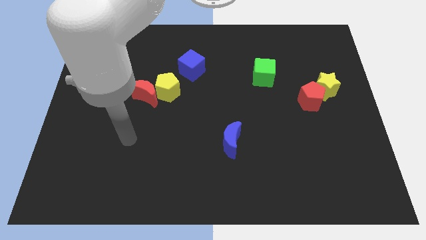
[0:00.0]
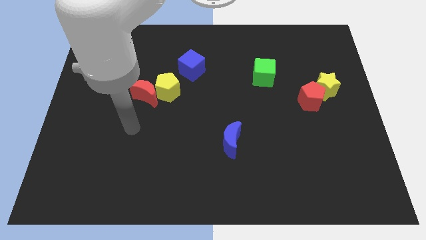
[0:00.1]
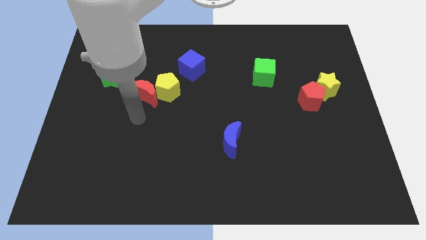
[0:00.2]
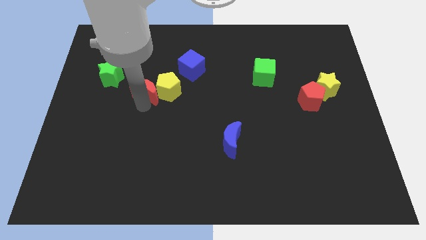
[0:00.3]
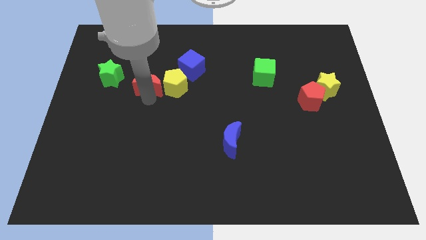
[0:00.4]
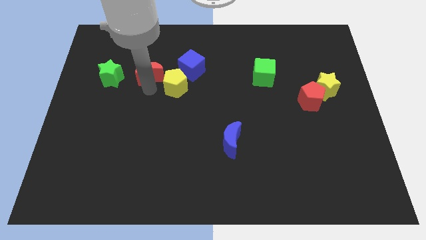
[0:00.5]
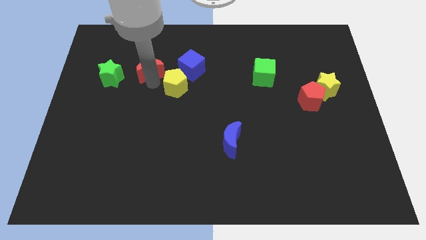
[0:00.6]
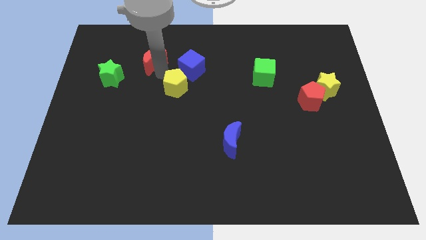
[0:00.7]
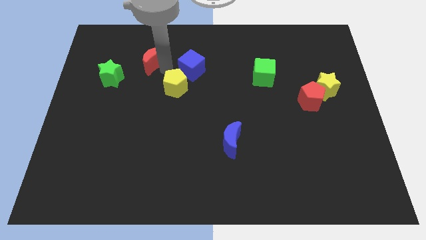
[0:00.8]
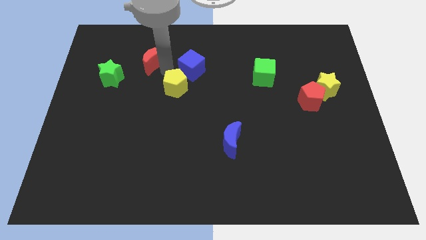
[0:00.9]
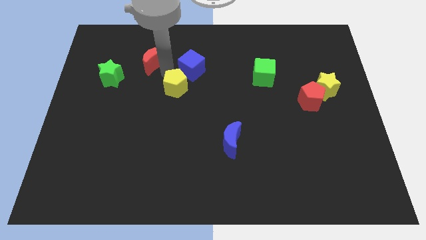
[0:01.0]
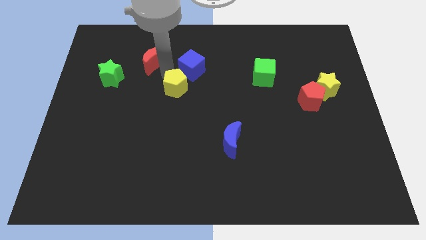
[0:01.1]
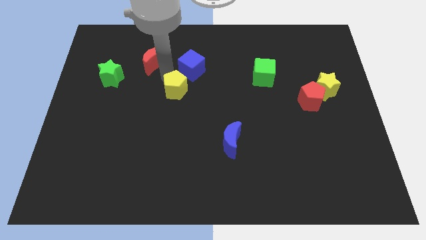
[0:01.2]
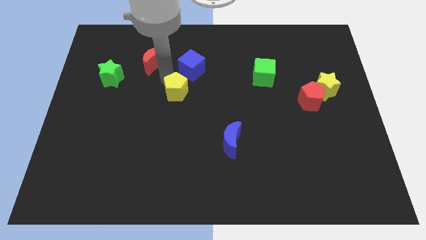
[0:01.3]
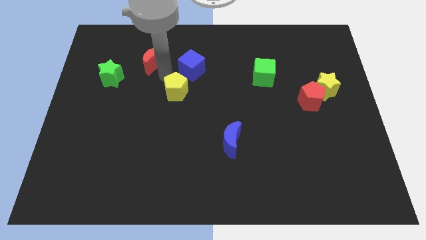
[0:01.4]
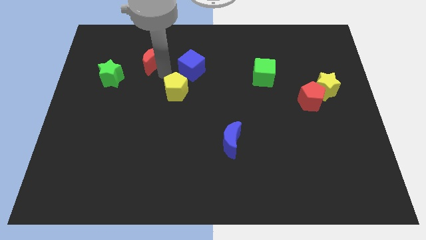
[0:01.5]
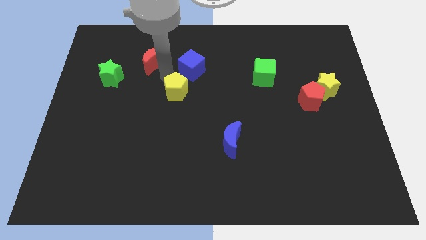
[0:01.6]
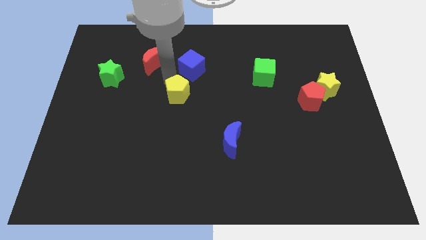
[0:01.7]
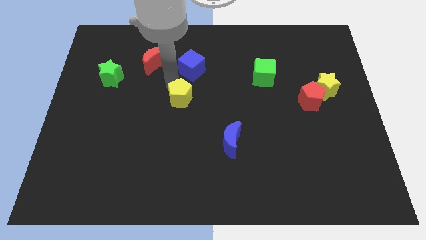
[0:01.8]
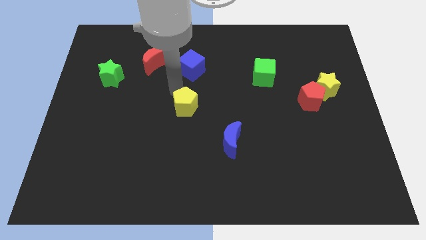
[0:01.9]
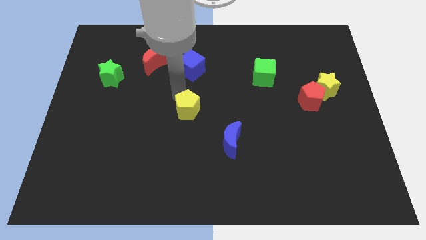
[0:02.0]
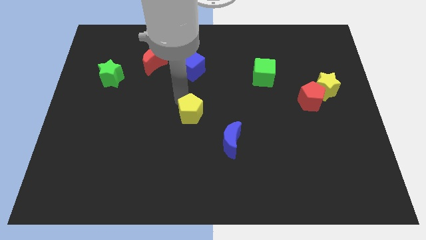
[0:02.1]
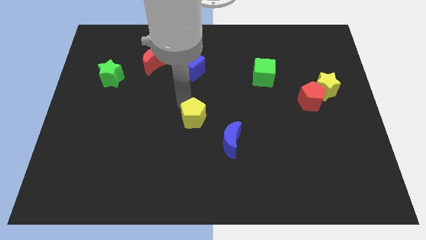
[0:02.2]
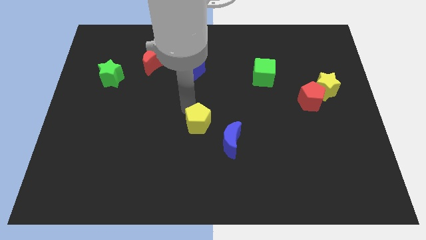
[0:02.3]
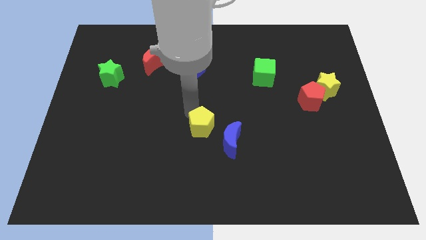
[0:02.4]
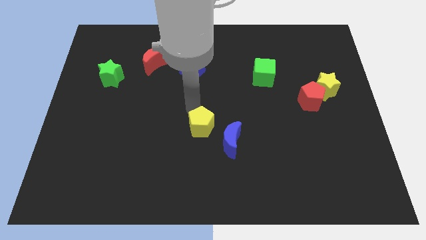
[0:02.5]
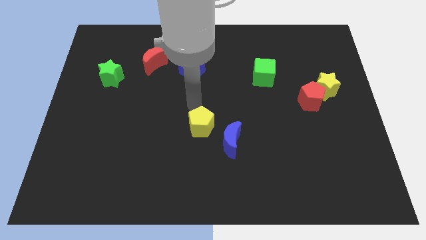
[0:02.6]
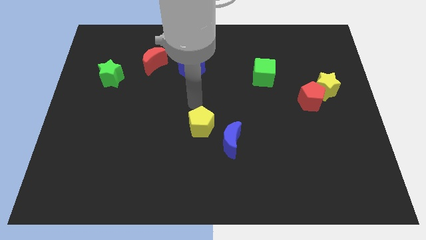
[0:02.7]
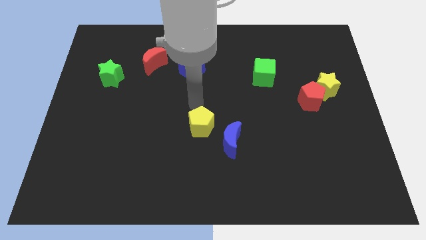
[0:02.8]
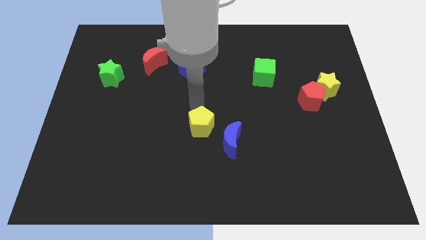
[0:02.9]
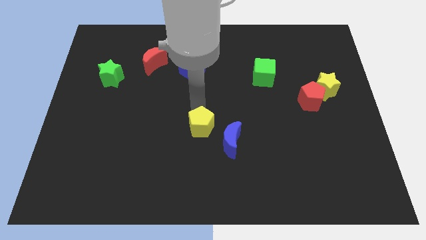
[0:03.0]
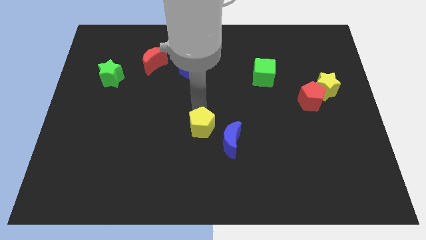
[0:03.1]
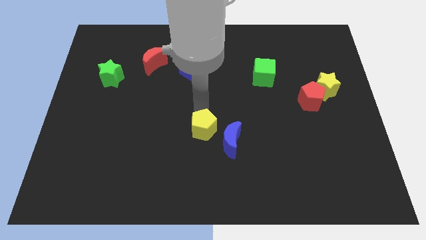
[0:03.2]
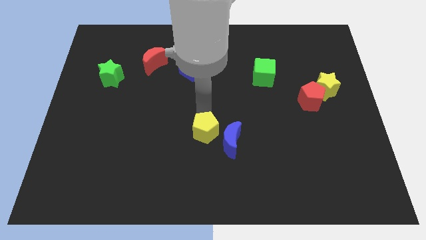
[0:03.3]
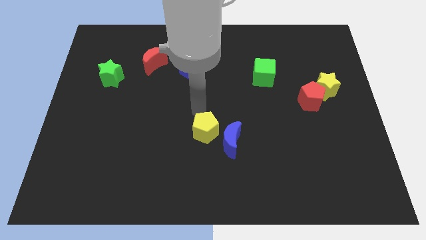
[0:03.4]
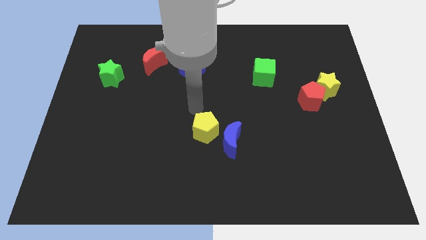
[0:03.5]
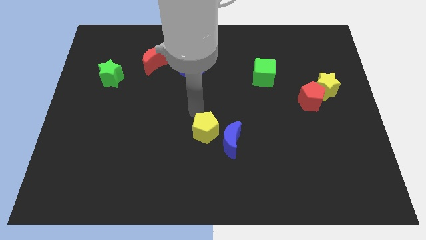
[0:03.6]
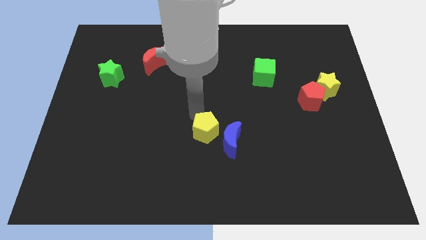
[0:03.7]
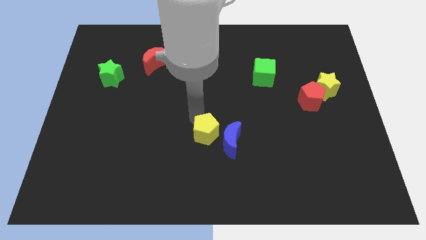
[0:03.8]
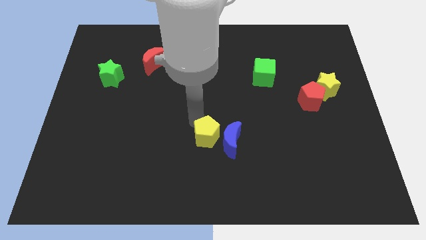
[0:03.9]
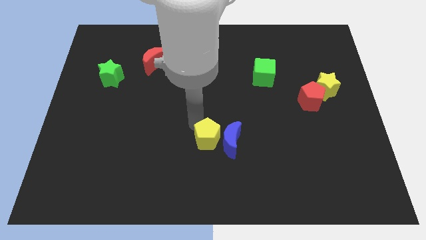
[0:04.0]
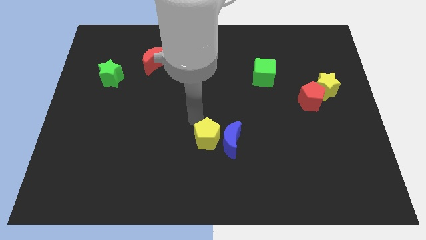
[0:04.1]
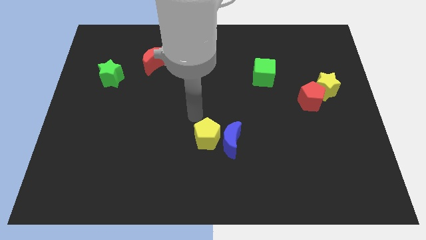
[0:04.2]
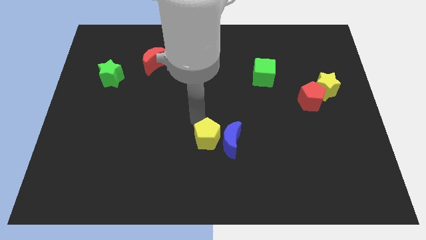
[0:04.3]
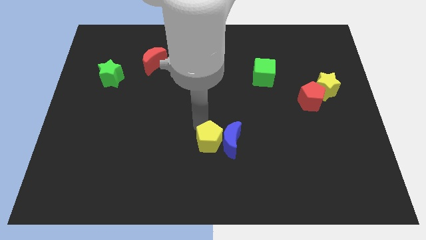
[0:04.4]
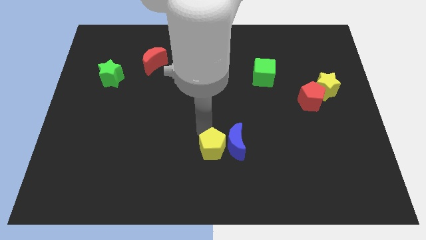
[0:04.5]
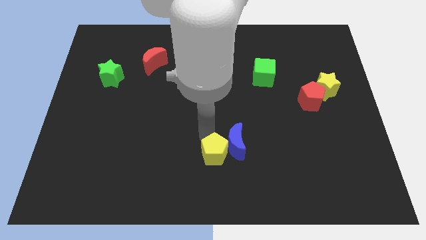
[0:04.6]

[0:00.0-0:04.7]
move the yellow pentagon downwards and then right

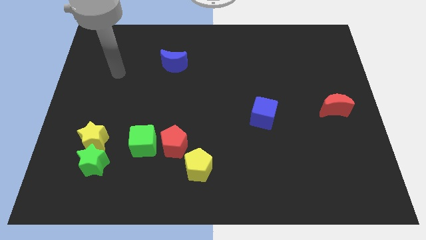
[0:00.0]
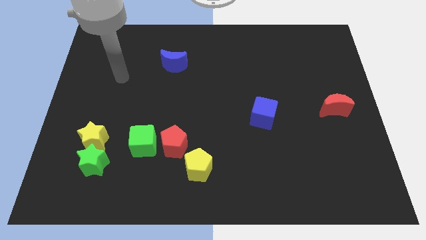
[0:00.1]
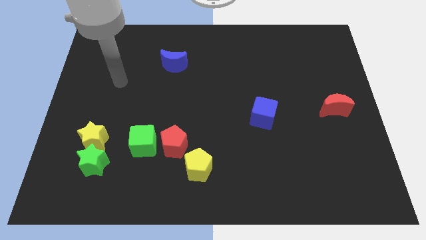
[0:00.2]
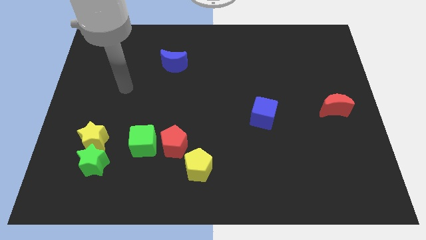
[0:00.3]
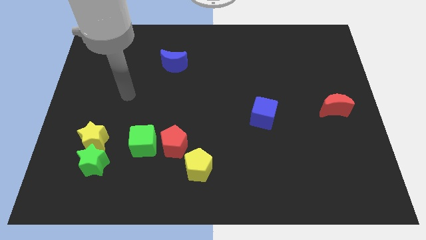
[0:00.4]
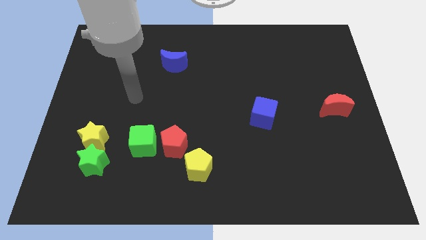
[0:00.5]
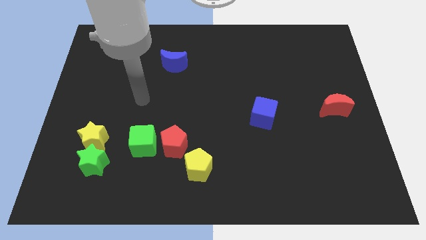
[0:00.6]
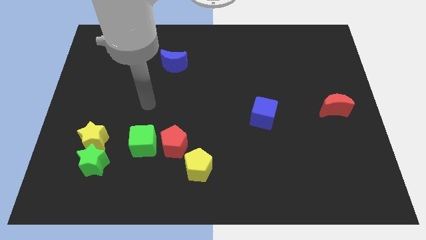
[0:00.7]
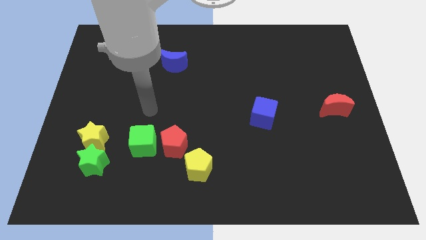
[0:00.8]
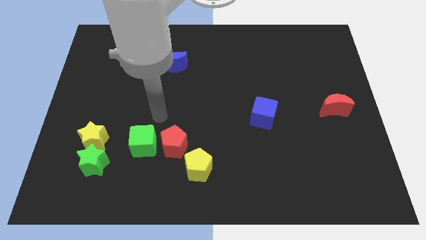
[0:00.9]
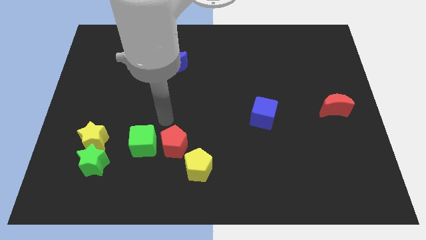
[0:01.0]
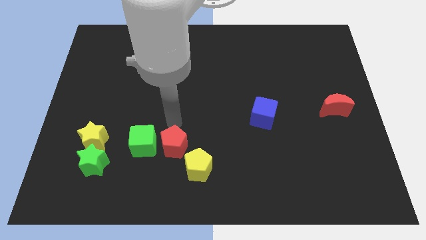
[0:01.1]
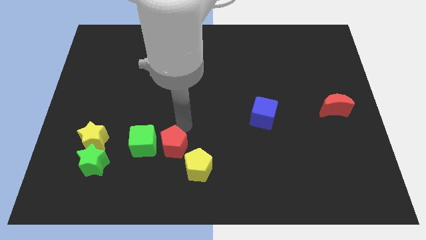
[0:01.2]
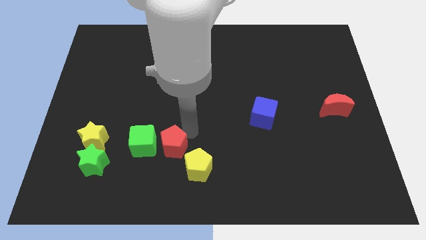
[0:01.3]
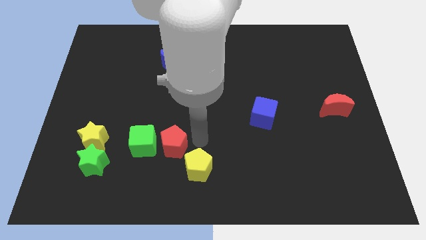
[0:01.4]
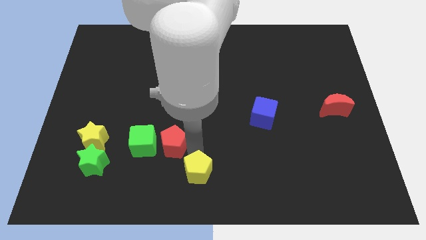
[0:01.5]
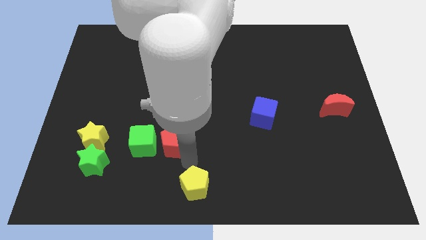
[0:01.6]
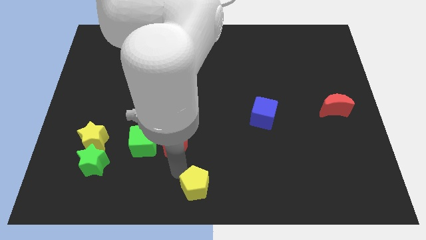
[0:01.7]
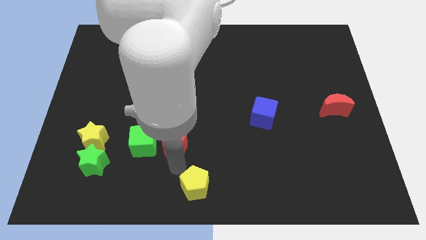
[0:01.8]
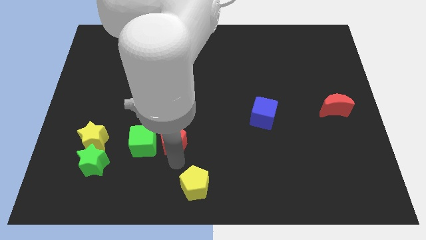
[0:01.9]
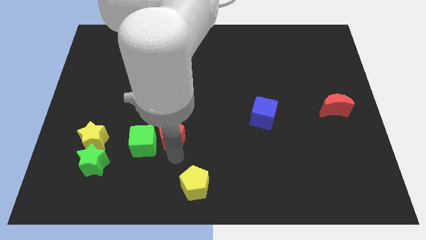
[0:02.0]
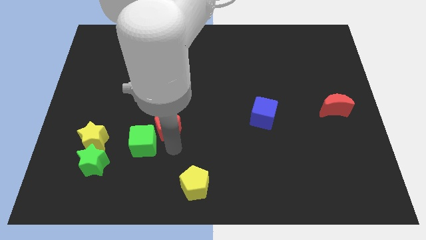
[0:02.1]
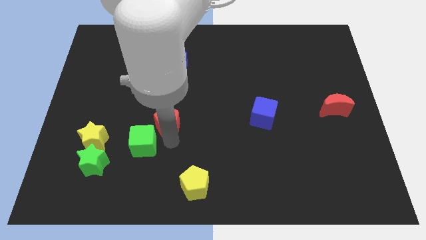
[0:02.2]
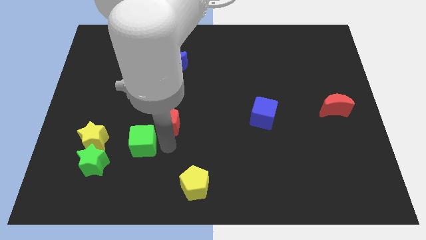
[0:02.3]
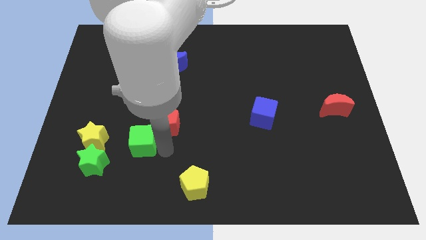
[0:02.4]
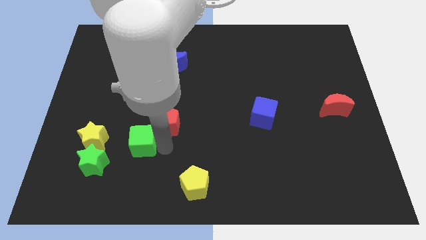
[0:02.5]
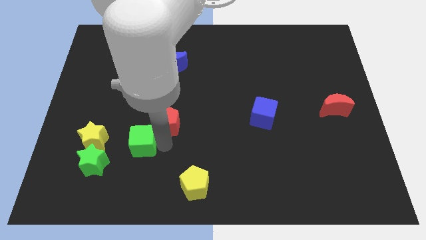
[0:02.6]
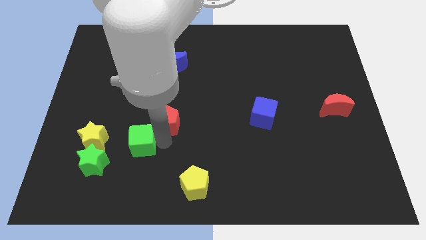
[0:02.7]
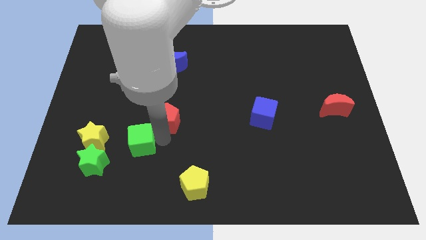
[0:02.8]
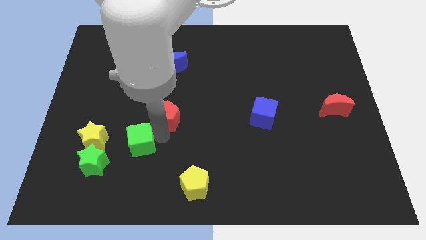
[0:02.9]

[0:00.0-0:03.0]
push the red pentagon a little bit up

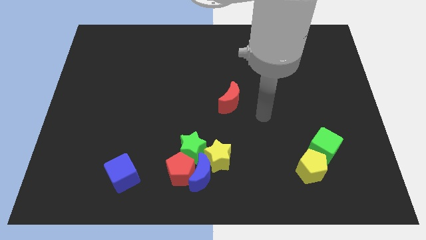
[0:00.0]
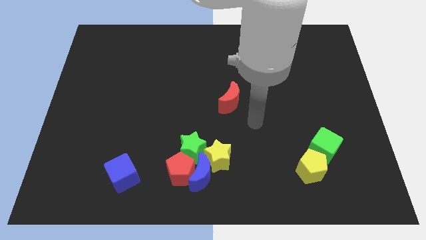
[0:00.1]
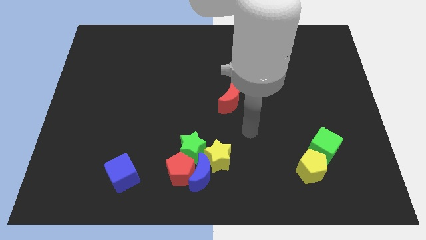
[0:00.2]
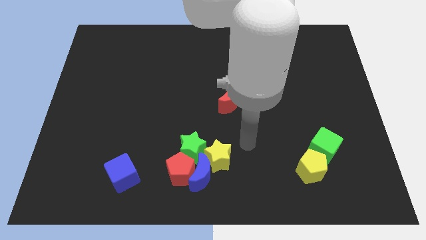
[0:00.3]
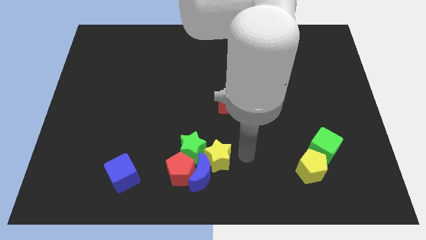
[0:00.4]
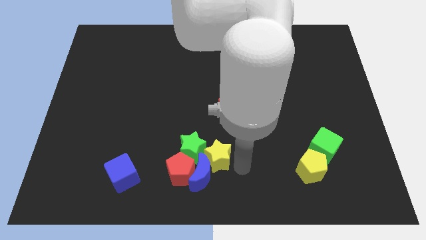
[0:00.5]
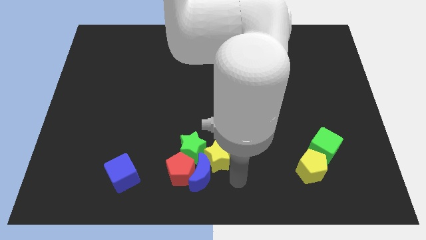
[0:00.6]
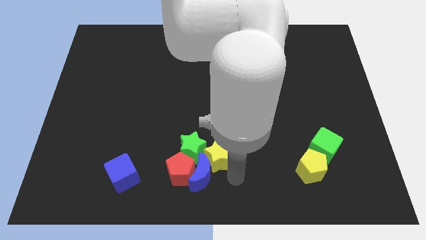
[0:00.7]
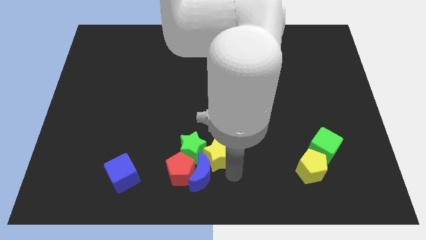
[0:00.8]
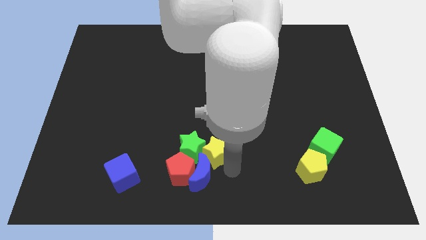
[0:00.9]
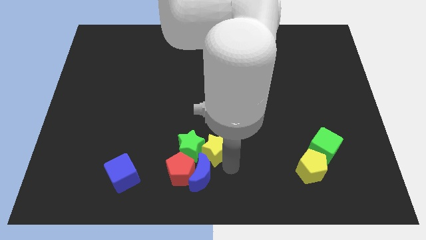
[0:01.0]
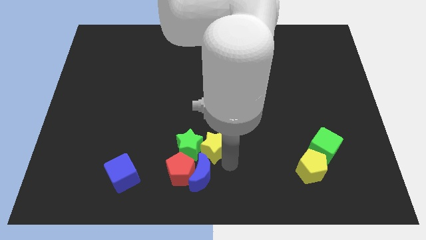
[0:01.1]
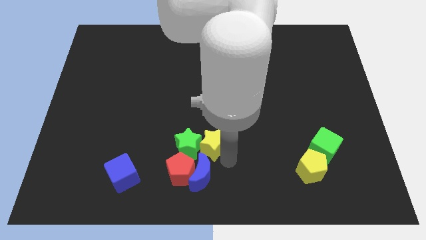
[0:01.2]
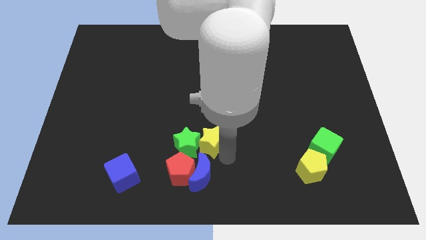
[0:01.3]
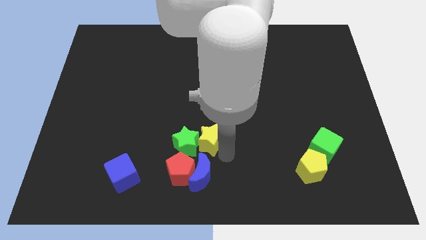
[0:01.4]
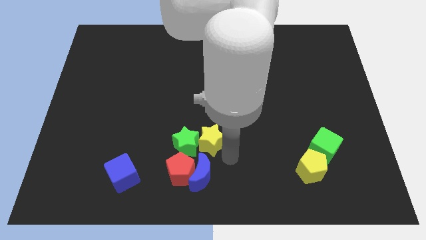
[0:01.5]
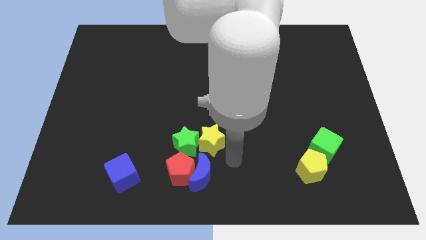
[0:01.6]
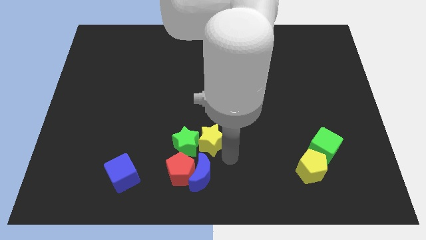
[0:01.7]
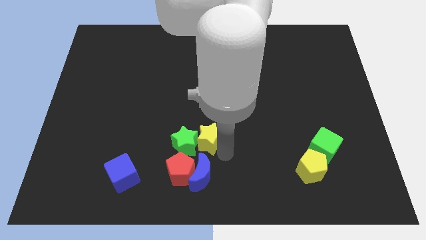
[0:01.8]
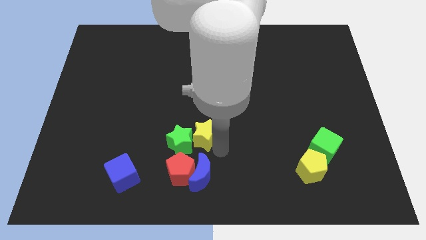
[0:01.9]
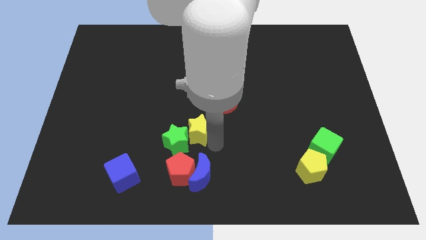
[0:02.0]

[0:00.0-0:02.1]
slightly push the yellow star up and left
